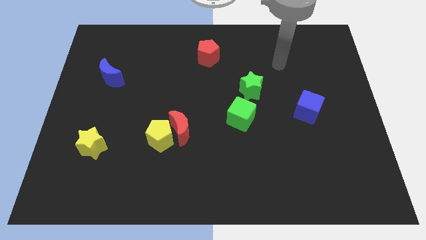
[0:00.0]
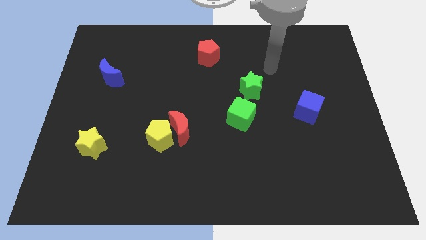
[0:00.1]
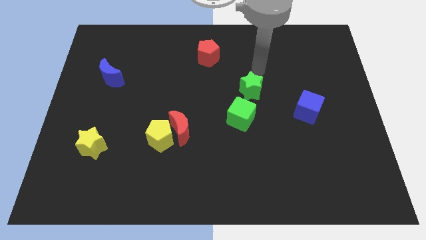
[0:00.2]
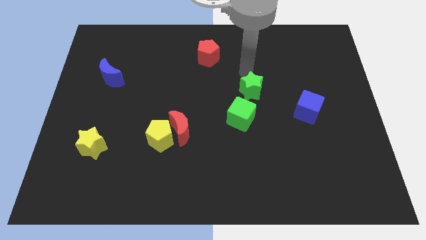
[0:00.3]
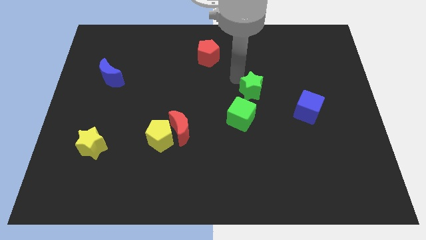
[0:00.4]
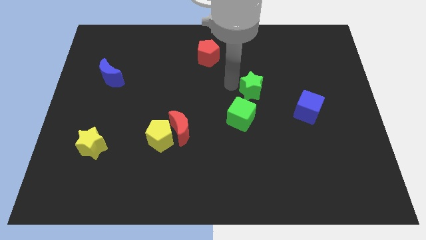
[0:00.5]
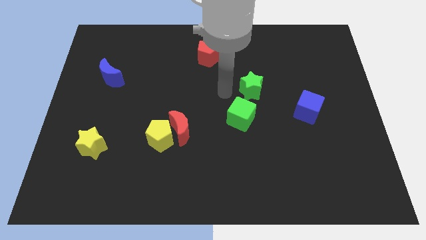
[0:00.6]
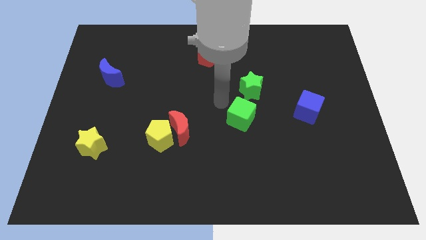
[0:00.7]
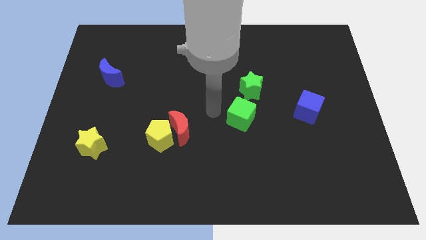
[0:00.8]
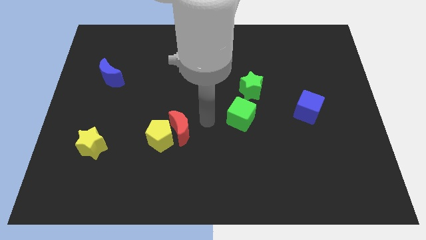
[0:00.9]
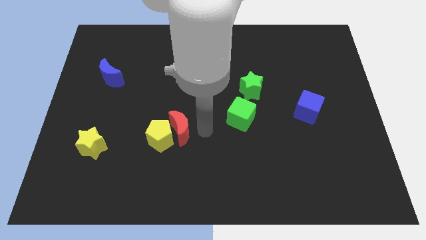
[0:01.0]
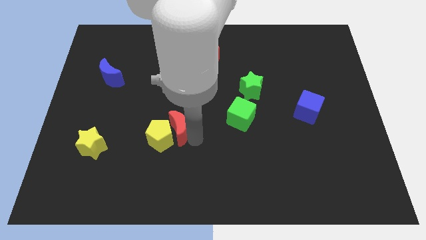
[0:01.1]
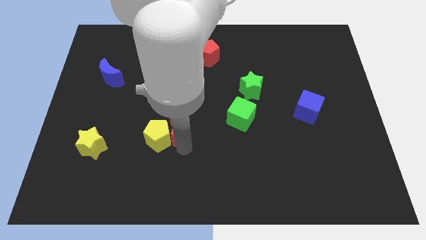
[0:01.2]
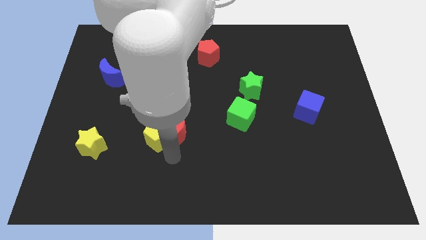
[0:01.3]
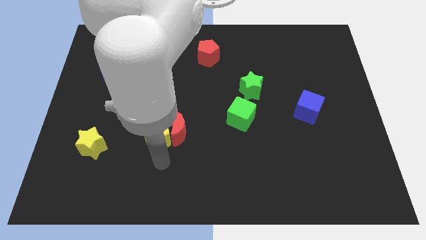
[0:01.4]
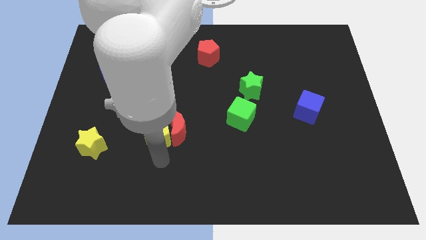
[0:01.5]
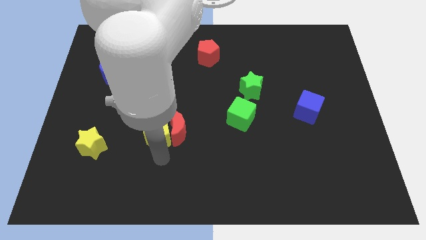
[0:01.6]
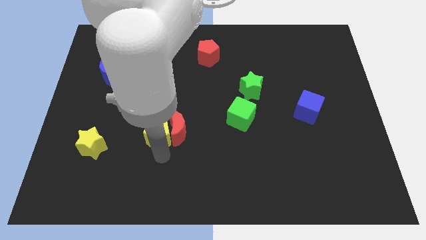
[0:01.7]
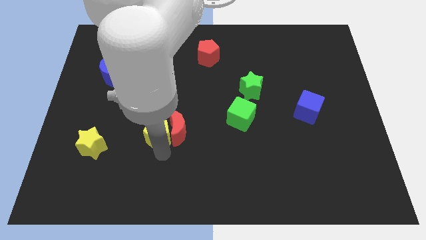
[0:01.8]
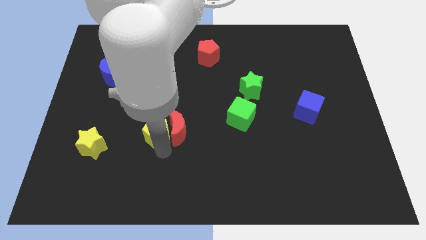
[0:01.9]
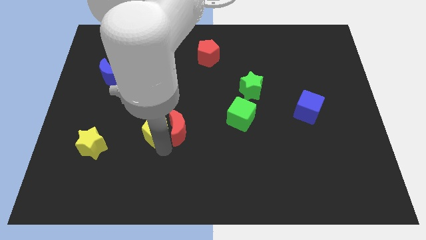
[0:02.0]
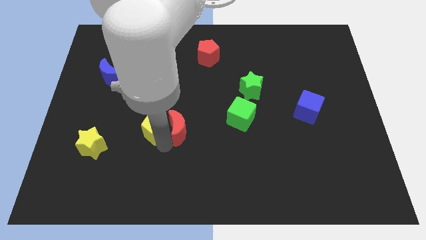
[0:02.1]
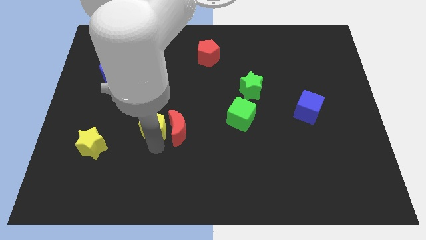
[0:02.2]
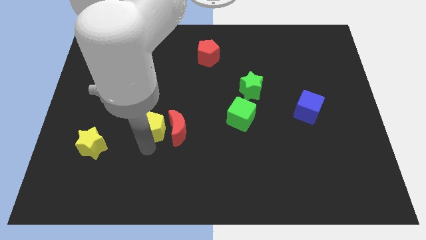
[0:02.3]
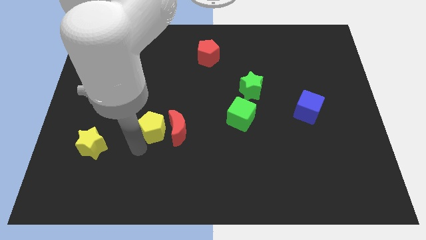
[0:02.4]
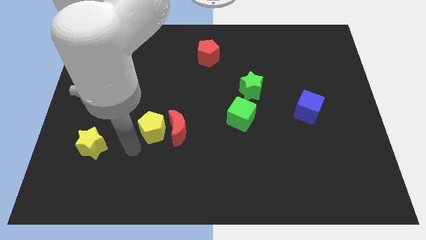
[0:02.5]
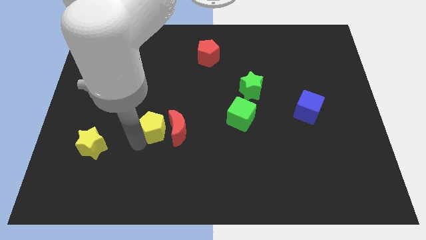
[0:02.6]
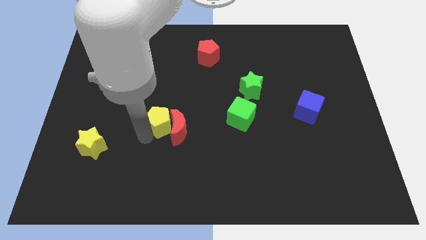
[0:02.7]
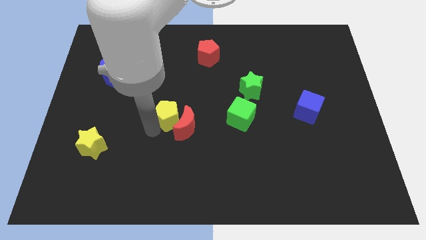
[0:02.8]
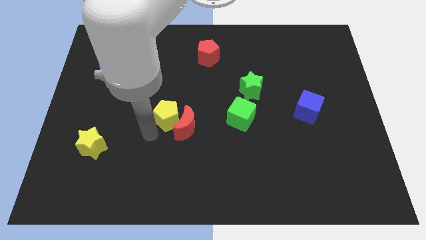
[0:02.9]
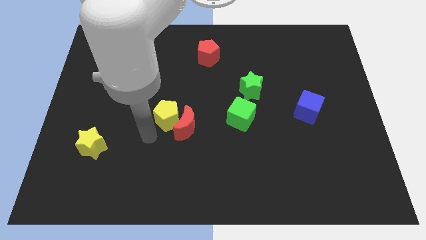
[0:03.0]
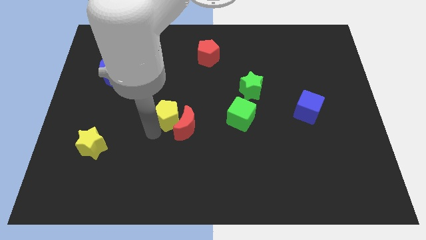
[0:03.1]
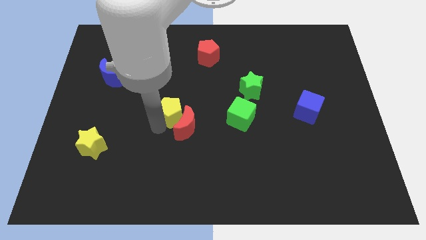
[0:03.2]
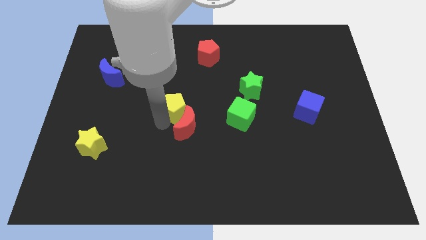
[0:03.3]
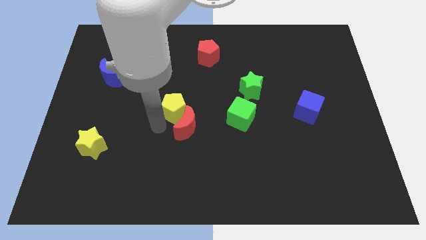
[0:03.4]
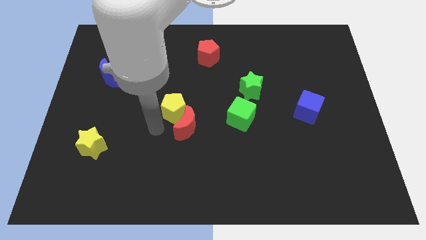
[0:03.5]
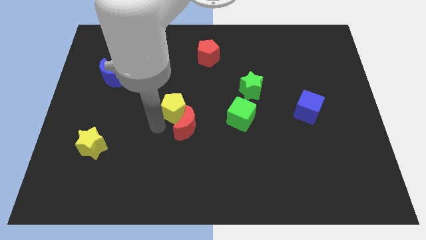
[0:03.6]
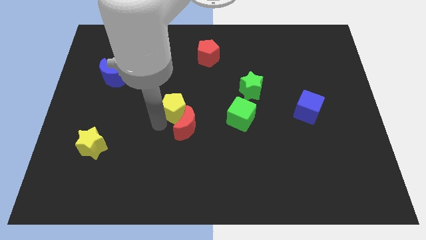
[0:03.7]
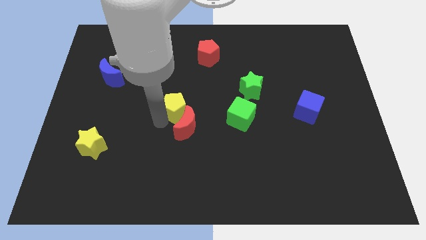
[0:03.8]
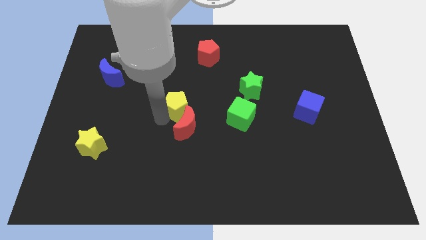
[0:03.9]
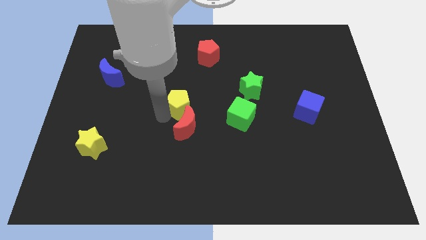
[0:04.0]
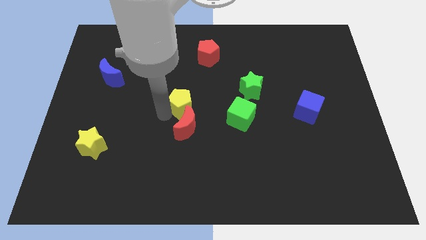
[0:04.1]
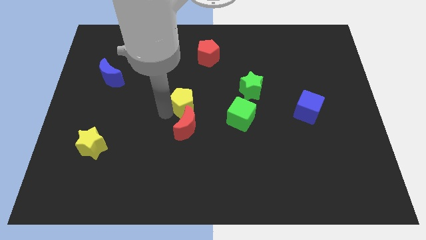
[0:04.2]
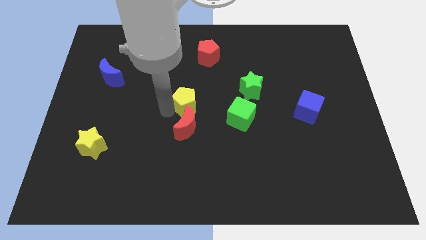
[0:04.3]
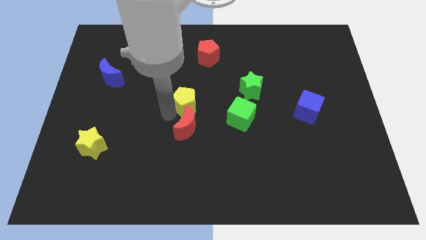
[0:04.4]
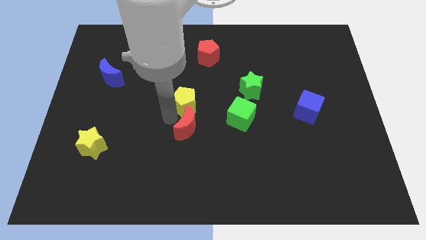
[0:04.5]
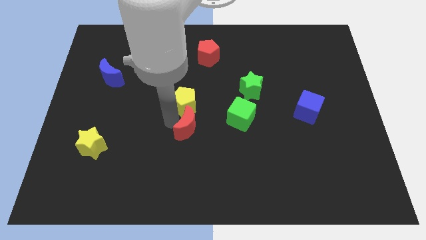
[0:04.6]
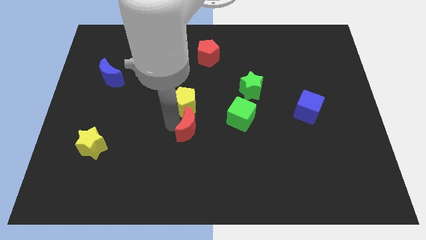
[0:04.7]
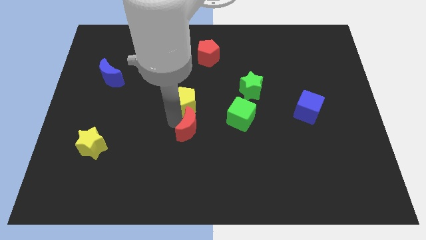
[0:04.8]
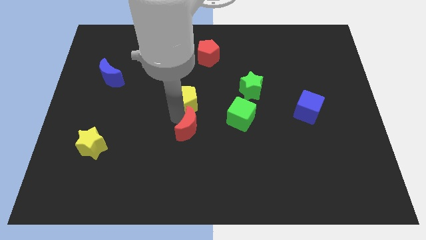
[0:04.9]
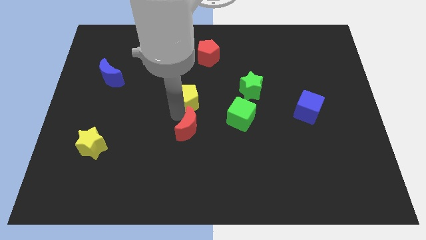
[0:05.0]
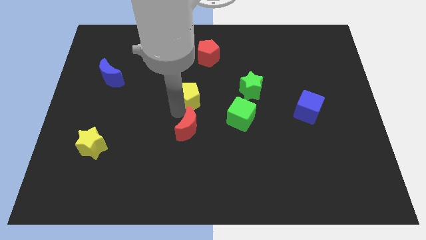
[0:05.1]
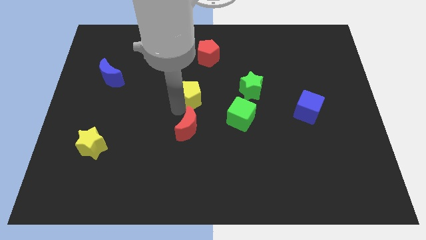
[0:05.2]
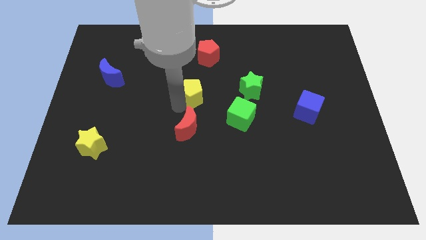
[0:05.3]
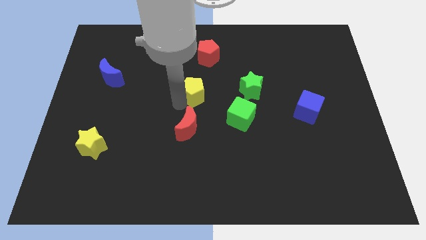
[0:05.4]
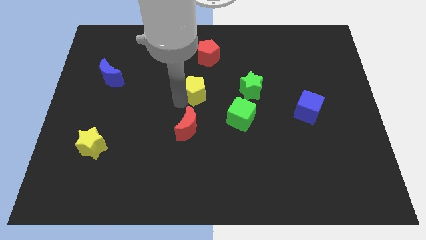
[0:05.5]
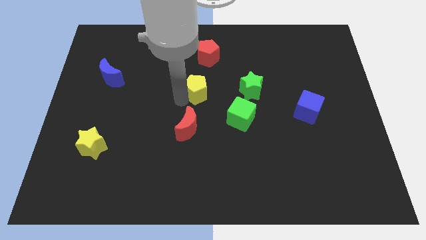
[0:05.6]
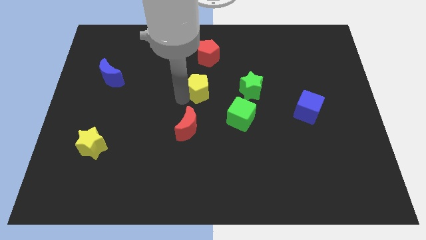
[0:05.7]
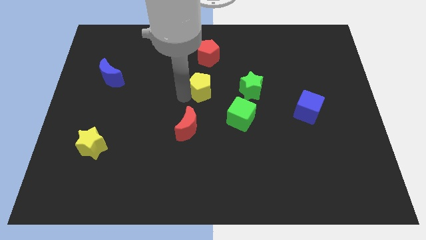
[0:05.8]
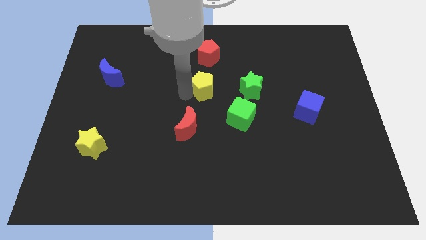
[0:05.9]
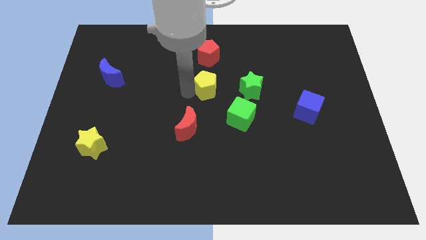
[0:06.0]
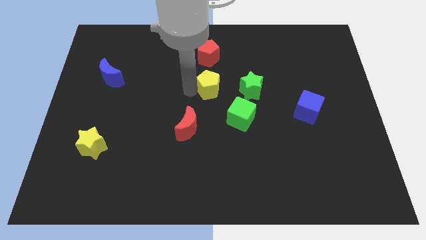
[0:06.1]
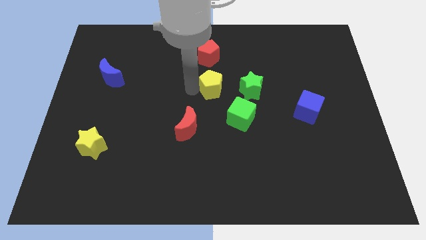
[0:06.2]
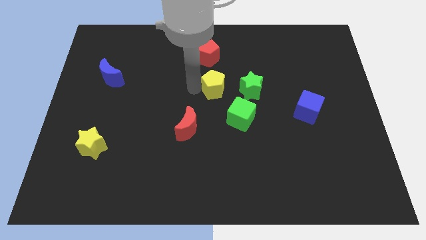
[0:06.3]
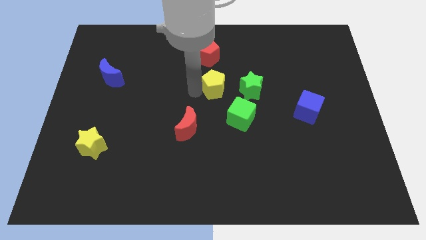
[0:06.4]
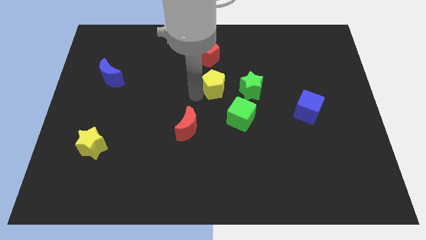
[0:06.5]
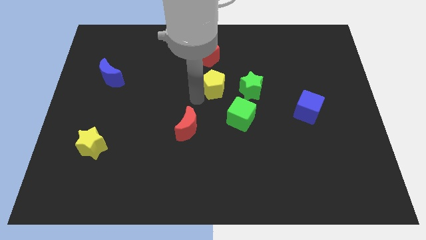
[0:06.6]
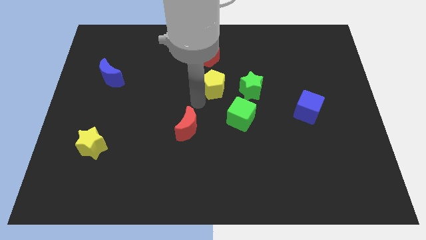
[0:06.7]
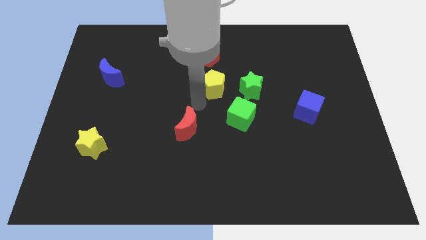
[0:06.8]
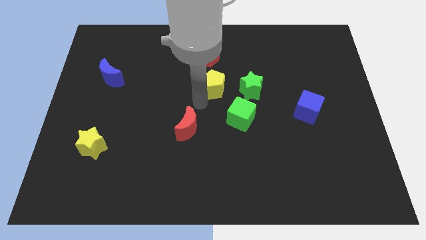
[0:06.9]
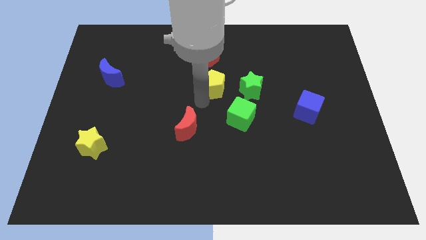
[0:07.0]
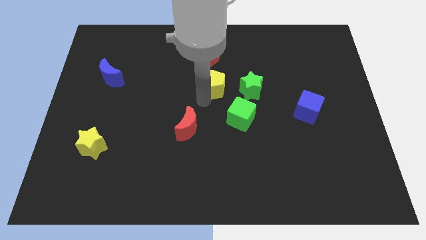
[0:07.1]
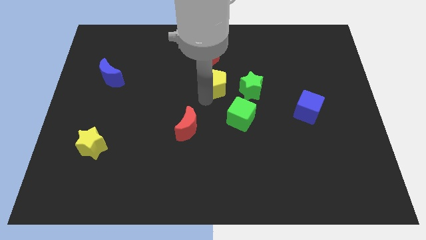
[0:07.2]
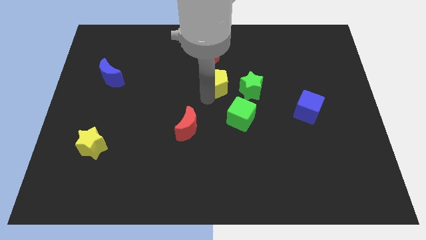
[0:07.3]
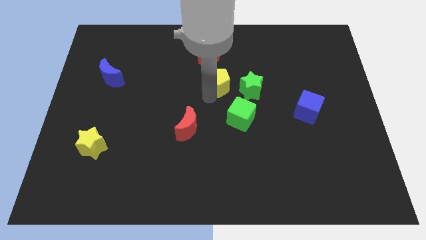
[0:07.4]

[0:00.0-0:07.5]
slide the yellow pentagon up and then right

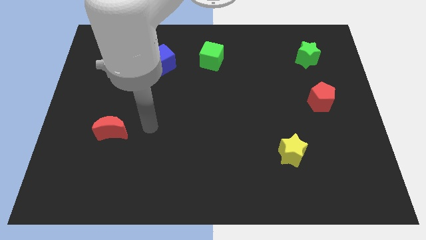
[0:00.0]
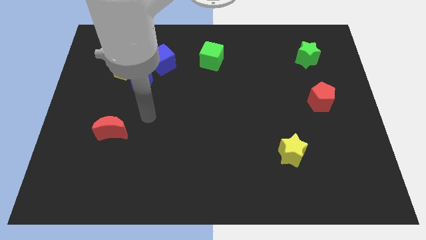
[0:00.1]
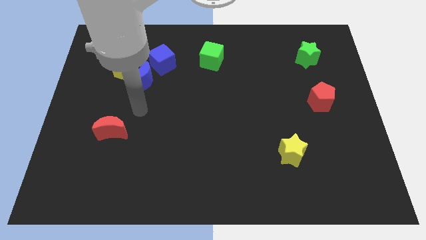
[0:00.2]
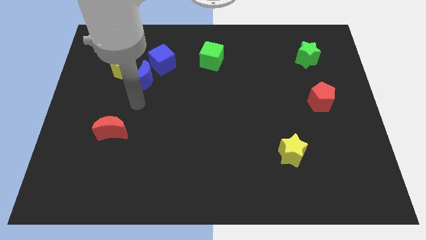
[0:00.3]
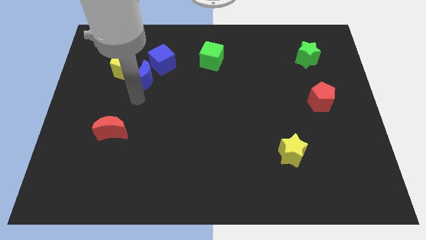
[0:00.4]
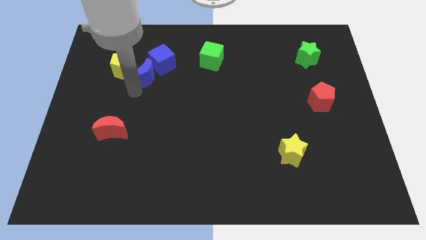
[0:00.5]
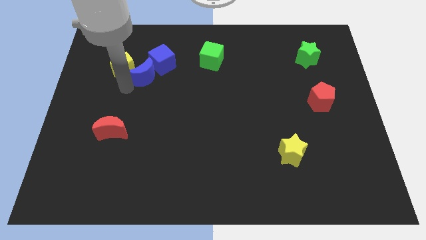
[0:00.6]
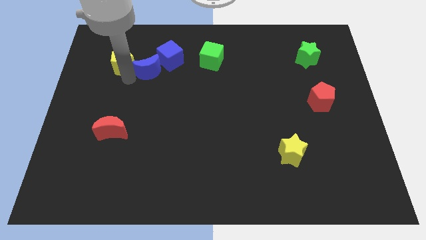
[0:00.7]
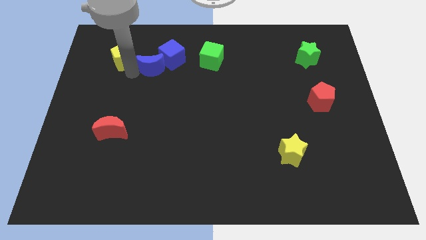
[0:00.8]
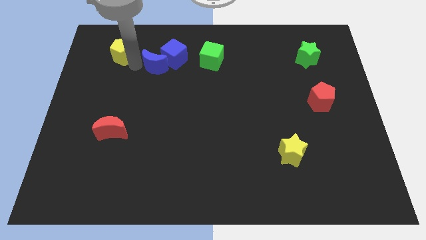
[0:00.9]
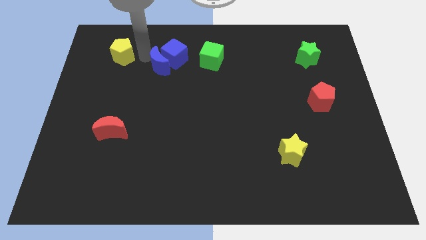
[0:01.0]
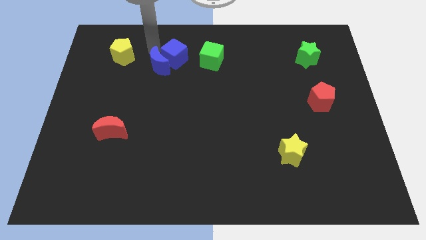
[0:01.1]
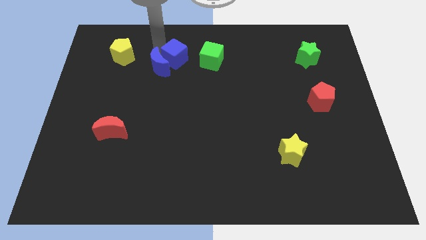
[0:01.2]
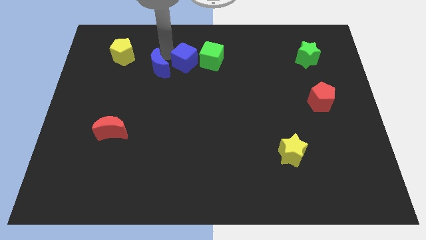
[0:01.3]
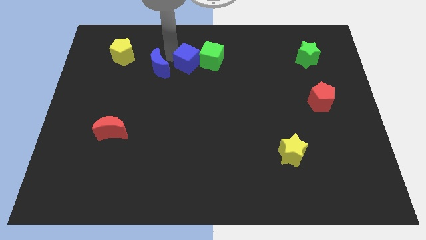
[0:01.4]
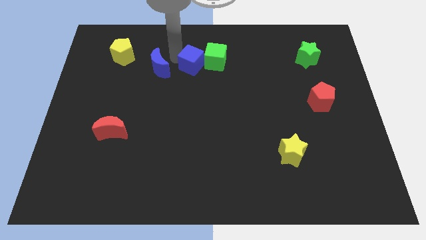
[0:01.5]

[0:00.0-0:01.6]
move the blue cube somewhat to the right
